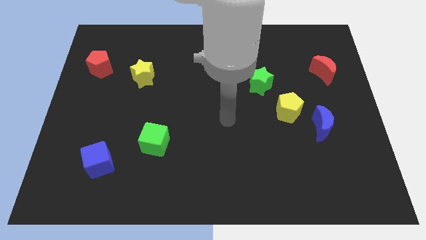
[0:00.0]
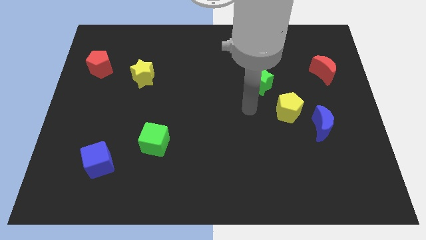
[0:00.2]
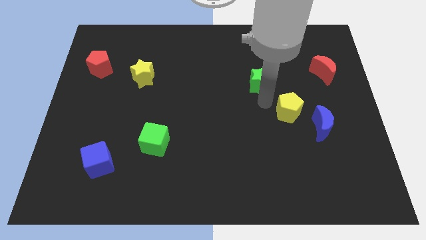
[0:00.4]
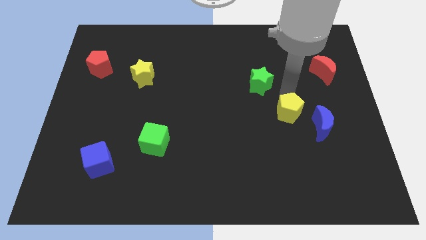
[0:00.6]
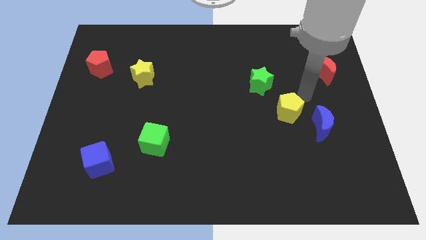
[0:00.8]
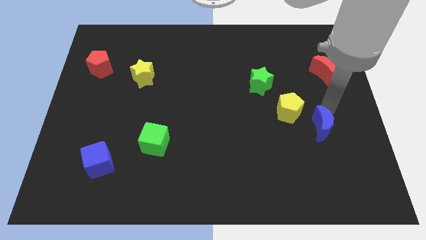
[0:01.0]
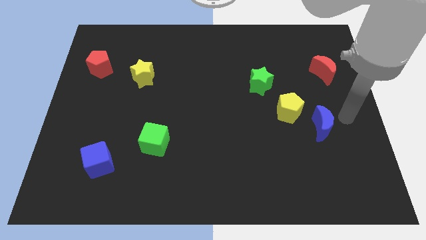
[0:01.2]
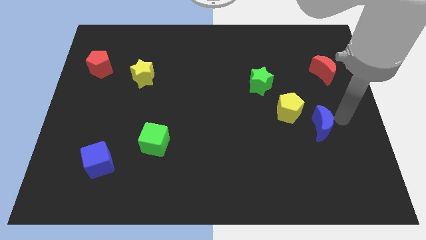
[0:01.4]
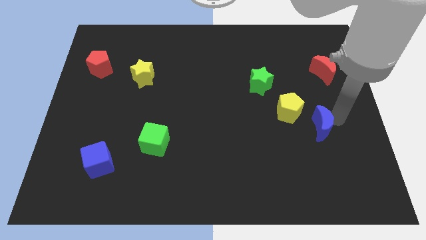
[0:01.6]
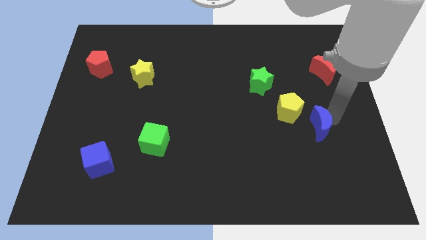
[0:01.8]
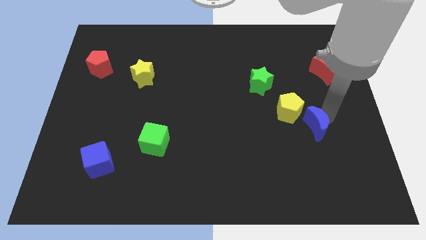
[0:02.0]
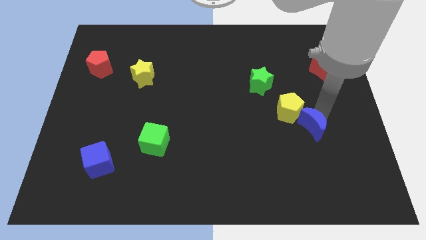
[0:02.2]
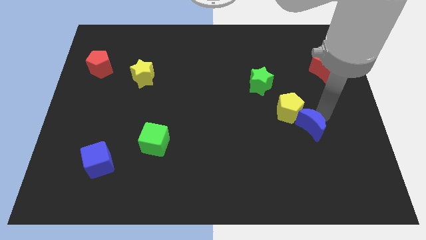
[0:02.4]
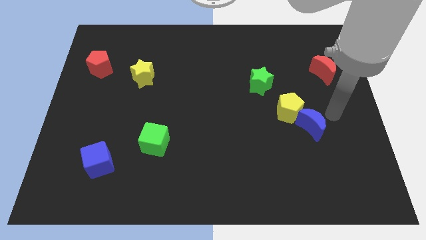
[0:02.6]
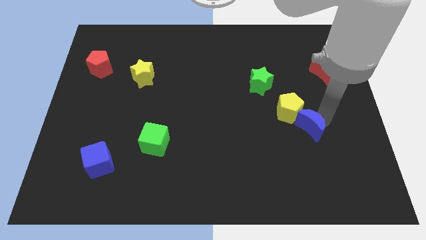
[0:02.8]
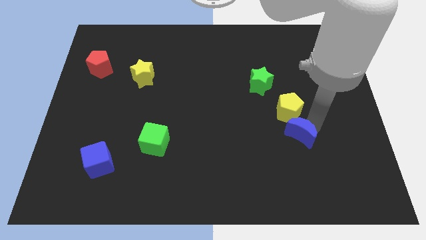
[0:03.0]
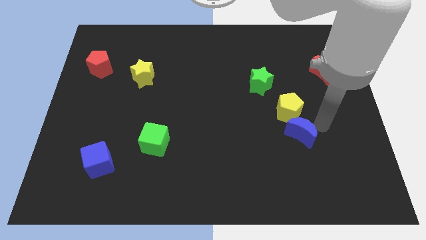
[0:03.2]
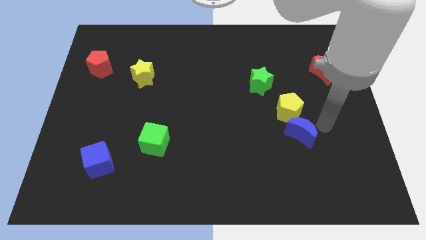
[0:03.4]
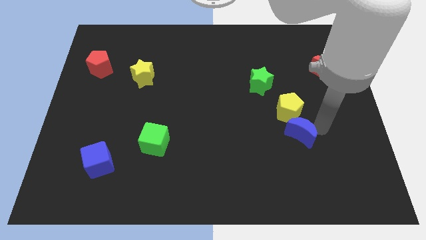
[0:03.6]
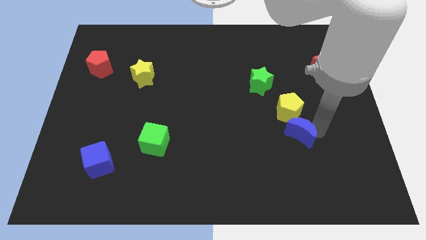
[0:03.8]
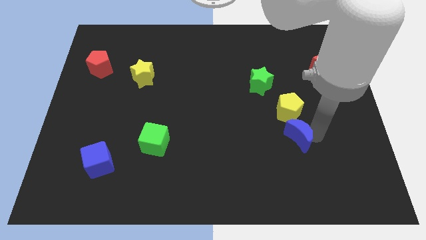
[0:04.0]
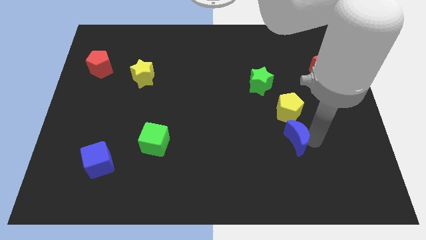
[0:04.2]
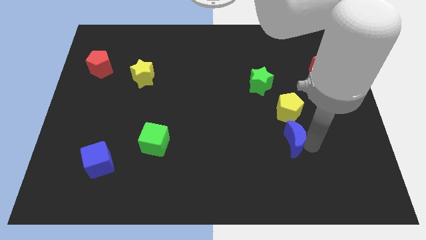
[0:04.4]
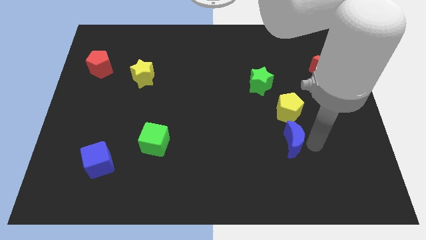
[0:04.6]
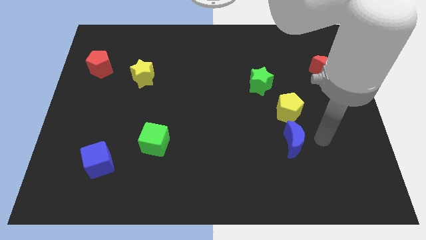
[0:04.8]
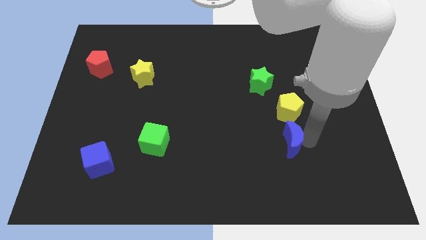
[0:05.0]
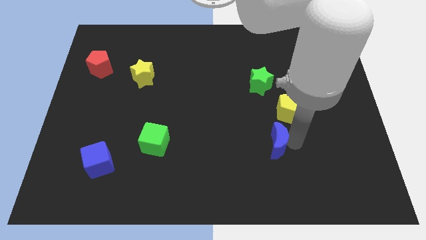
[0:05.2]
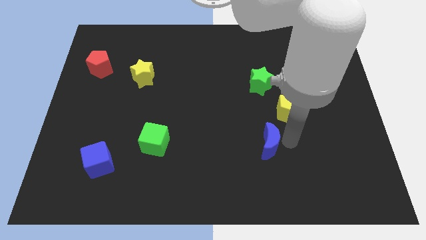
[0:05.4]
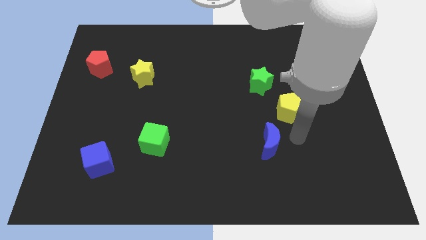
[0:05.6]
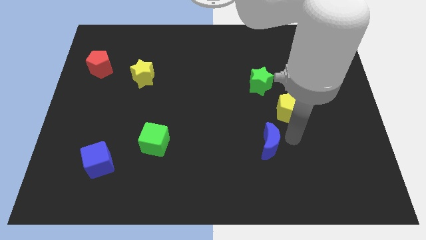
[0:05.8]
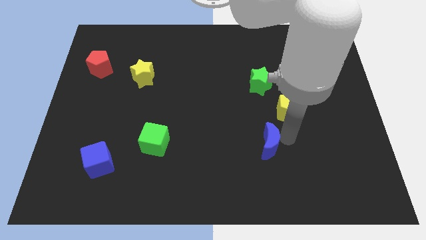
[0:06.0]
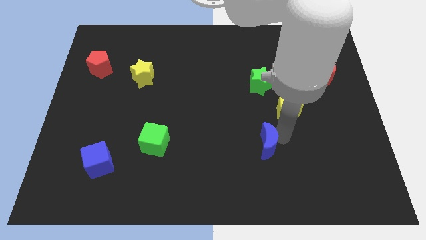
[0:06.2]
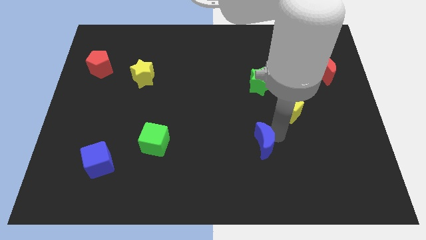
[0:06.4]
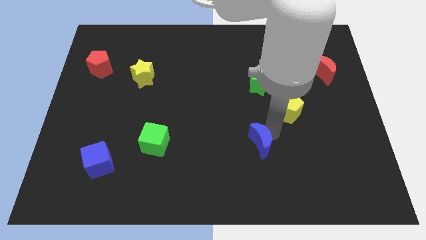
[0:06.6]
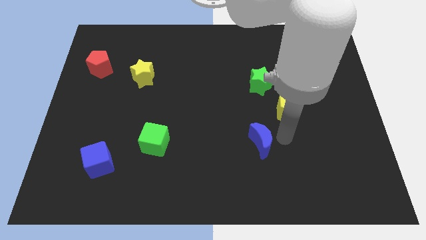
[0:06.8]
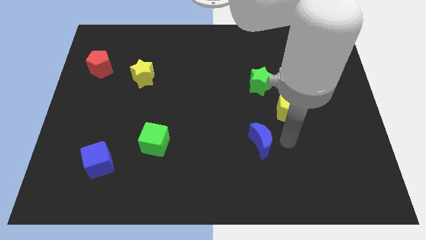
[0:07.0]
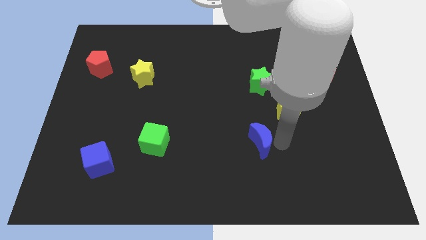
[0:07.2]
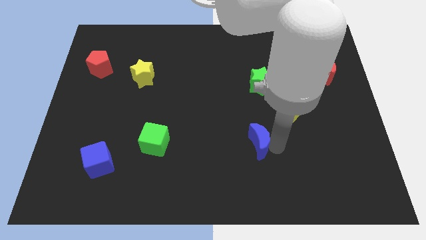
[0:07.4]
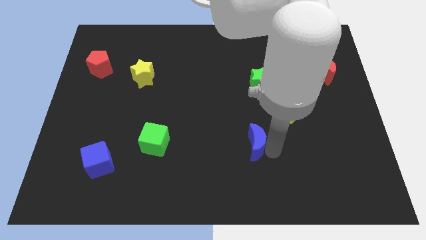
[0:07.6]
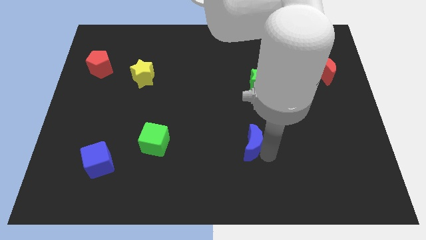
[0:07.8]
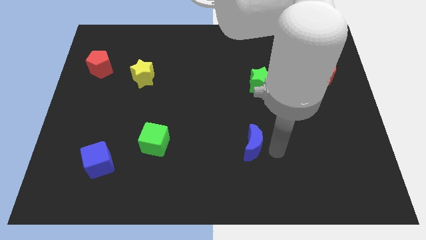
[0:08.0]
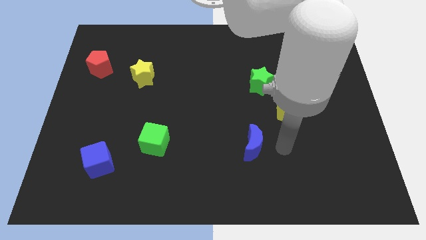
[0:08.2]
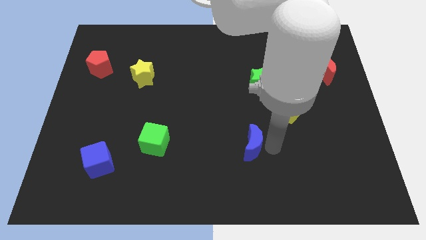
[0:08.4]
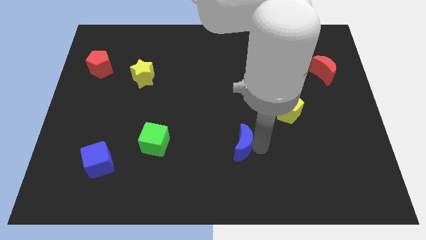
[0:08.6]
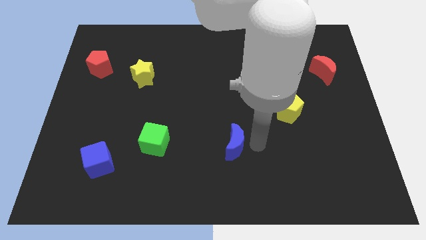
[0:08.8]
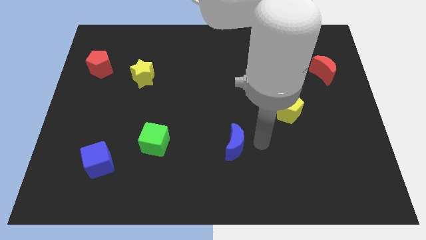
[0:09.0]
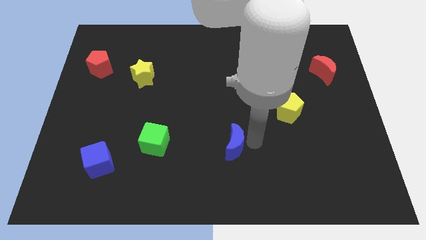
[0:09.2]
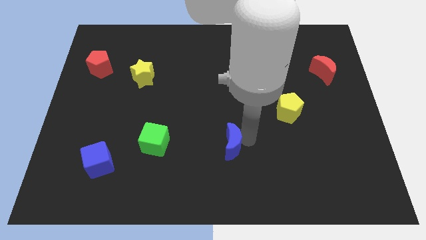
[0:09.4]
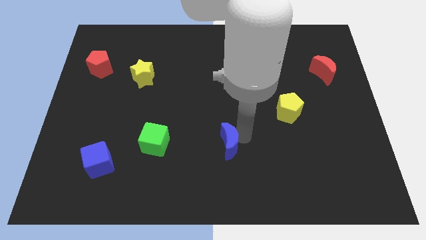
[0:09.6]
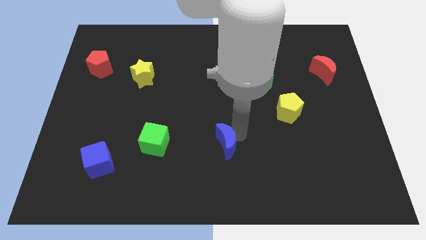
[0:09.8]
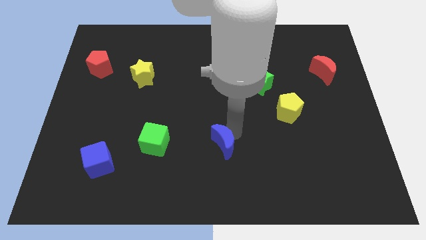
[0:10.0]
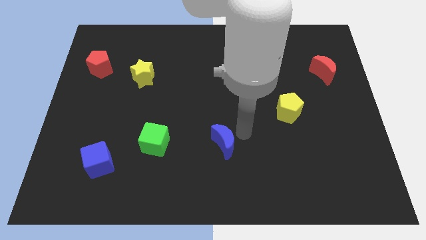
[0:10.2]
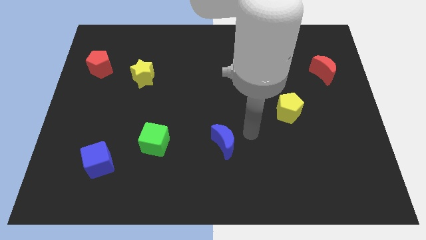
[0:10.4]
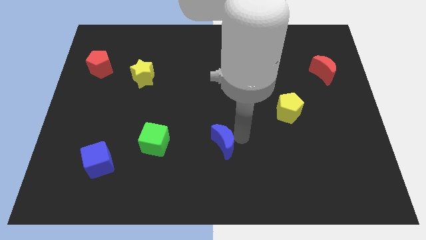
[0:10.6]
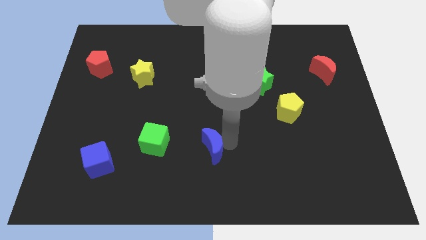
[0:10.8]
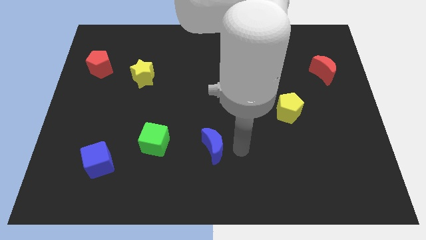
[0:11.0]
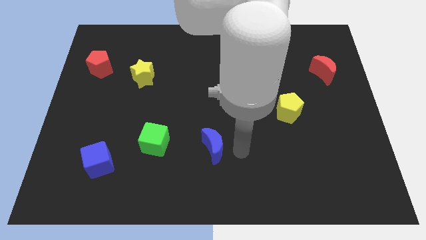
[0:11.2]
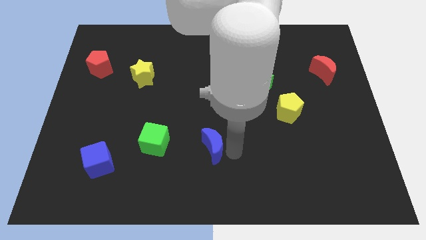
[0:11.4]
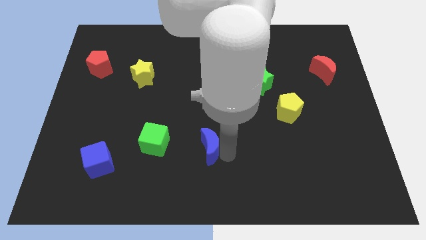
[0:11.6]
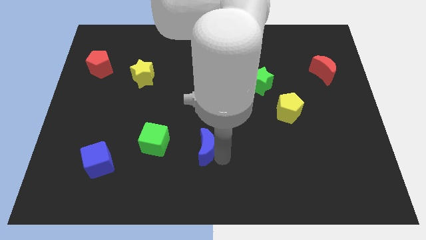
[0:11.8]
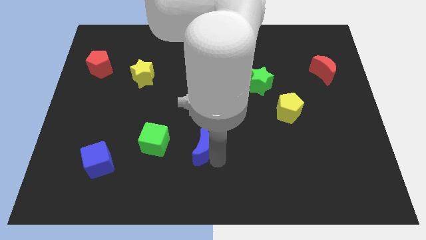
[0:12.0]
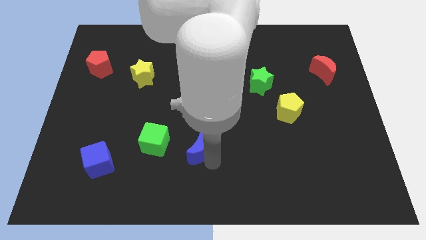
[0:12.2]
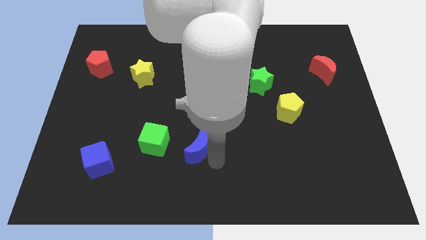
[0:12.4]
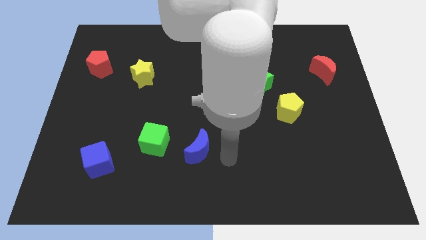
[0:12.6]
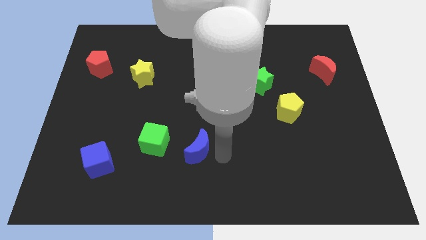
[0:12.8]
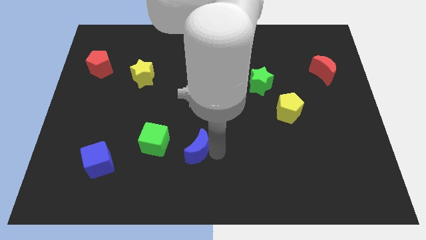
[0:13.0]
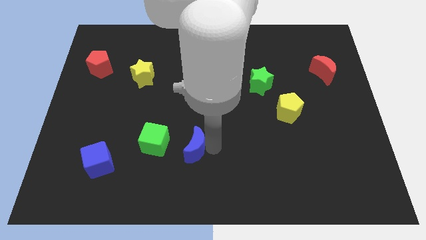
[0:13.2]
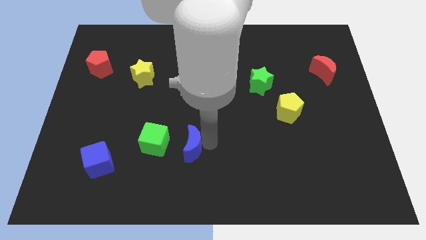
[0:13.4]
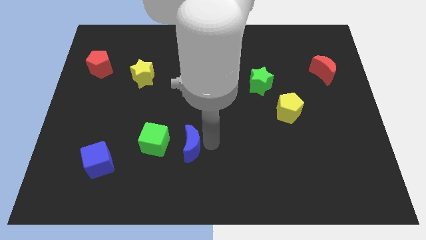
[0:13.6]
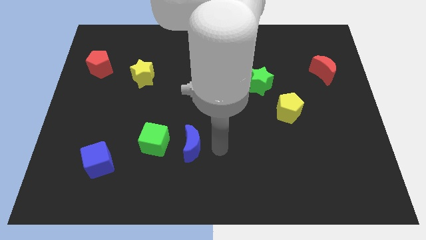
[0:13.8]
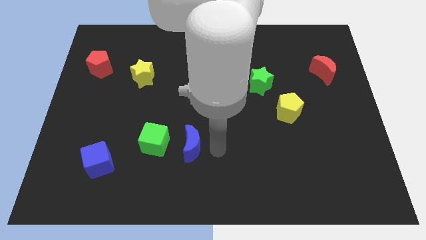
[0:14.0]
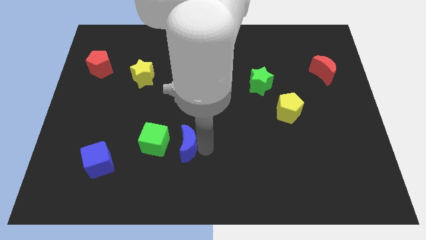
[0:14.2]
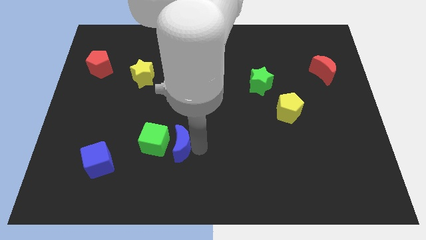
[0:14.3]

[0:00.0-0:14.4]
move the blue moon to the green cube
